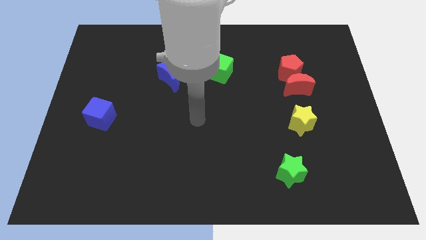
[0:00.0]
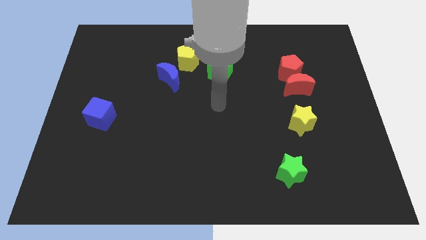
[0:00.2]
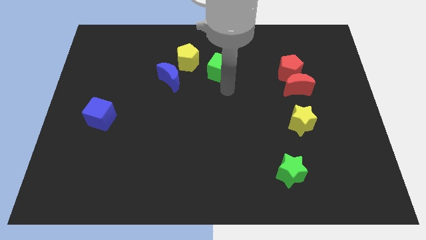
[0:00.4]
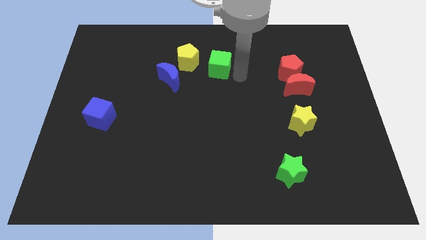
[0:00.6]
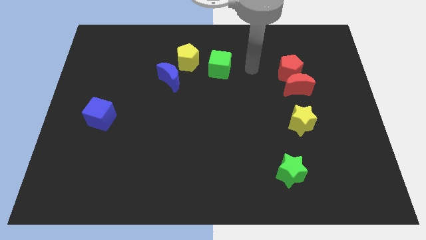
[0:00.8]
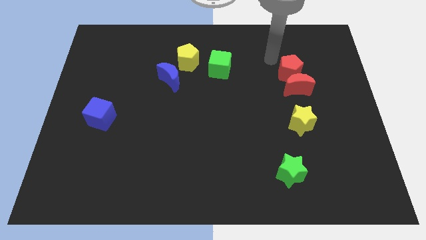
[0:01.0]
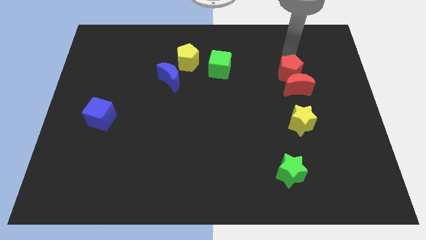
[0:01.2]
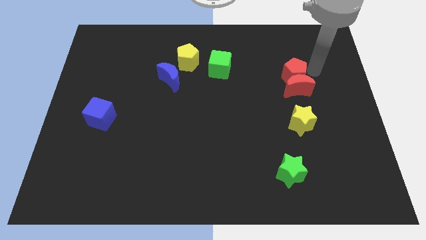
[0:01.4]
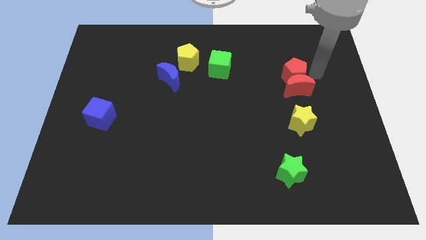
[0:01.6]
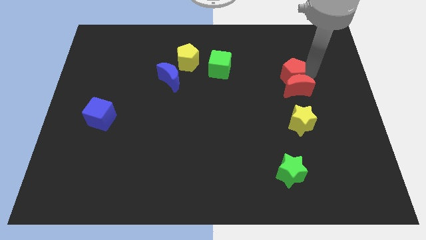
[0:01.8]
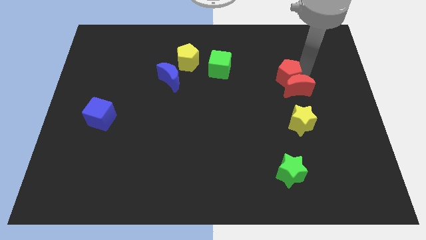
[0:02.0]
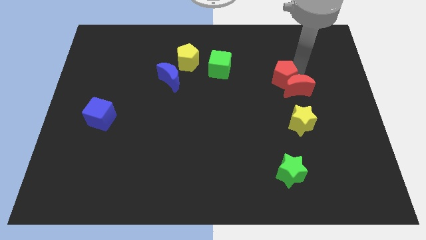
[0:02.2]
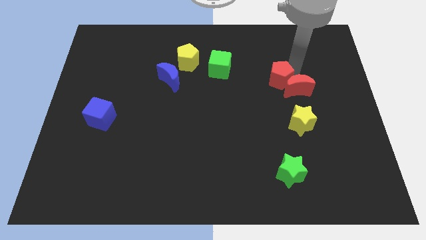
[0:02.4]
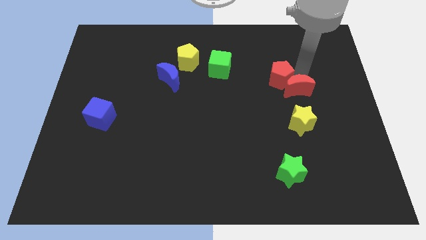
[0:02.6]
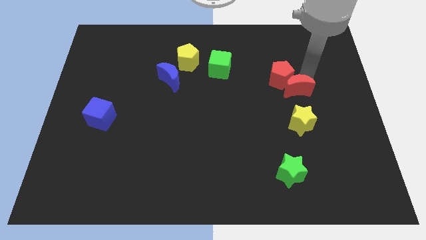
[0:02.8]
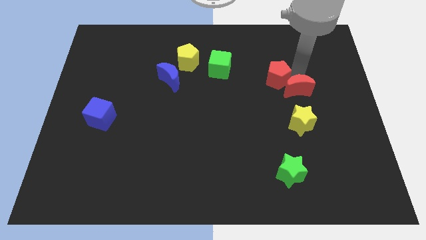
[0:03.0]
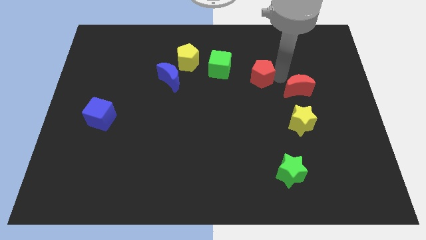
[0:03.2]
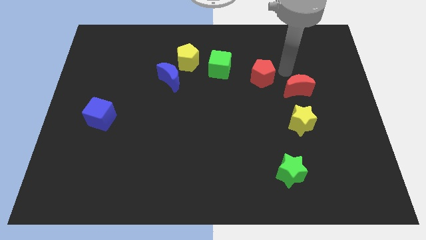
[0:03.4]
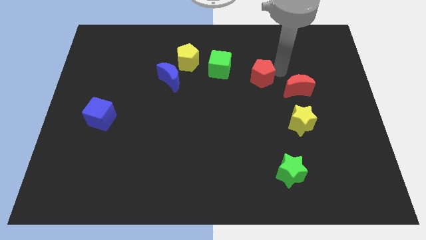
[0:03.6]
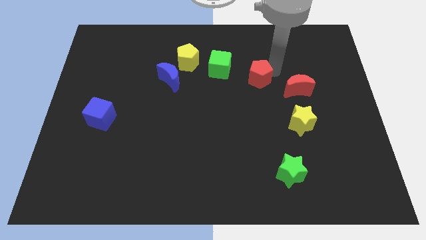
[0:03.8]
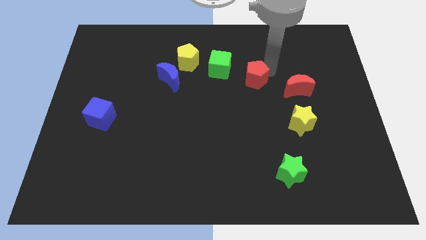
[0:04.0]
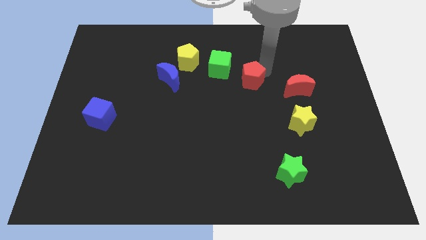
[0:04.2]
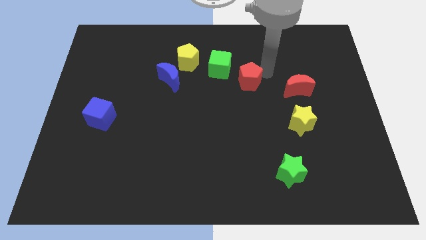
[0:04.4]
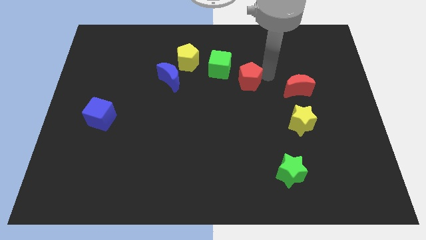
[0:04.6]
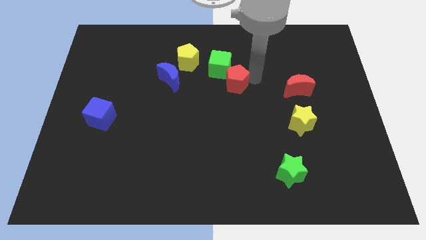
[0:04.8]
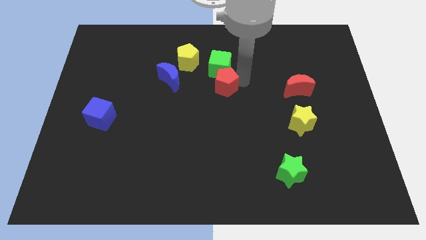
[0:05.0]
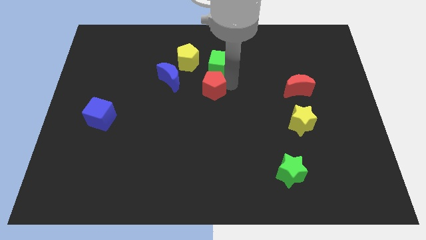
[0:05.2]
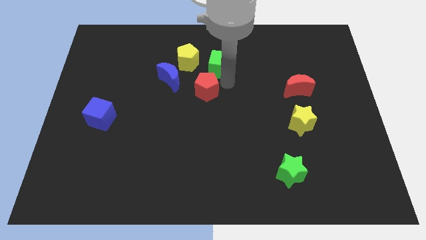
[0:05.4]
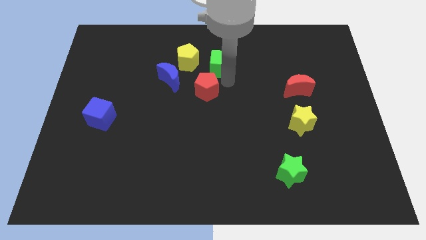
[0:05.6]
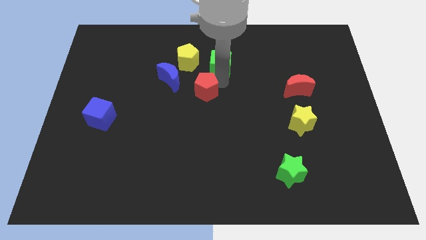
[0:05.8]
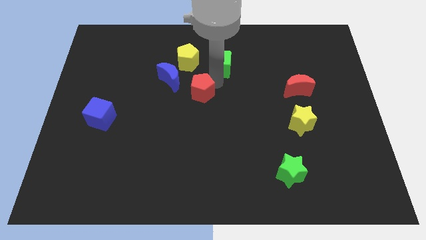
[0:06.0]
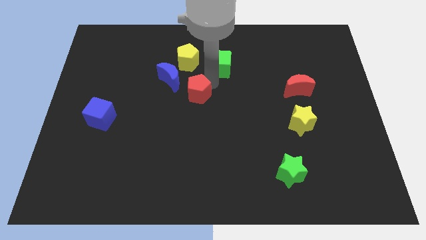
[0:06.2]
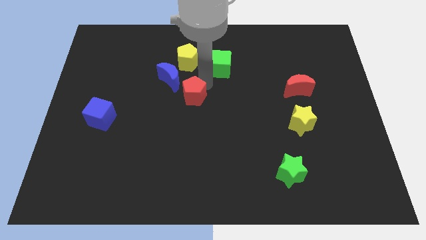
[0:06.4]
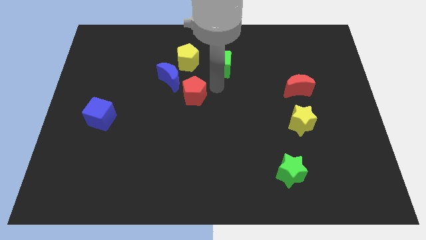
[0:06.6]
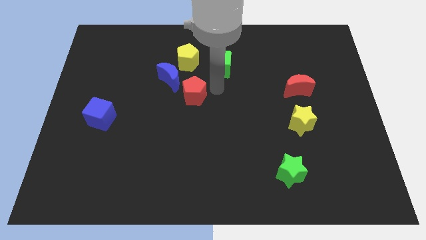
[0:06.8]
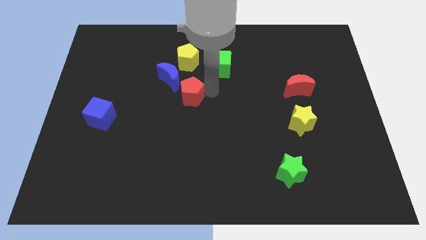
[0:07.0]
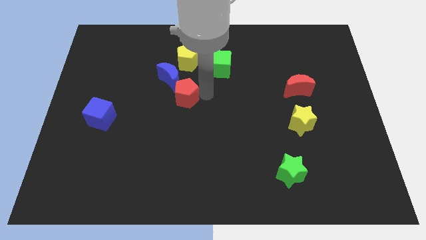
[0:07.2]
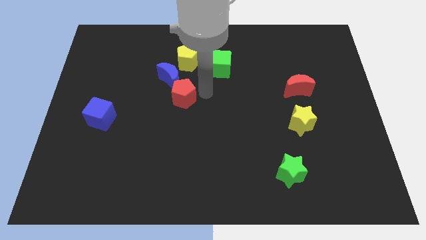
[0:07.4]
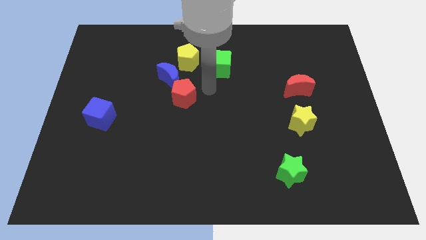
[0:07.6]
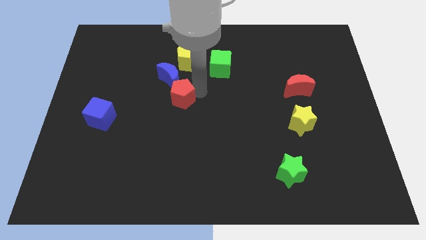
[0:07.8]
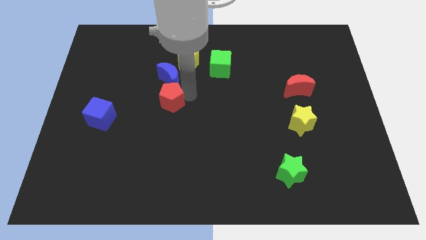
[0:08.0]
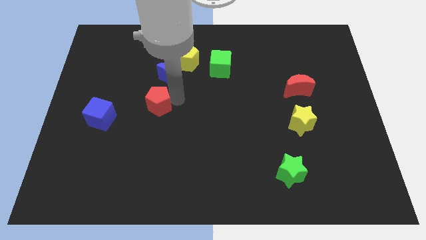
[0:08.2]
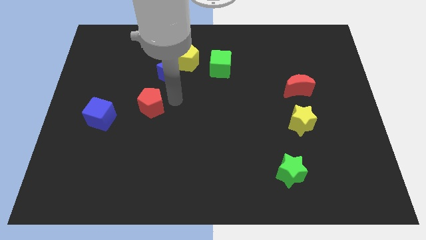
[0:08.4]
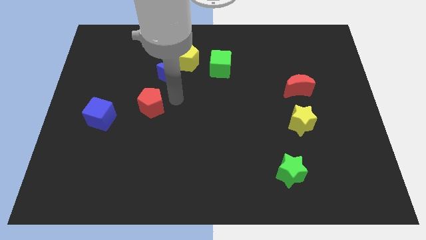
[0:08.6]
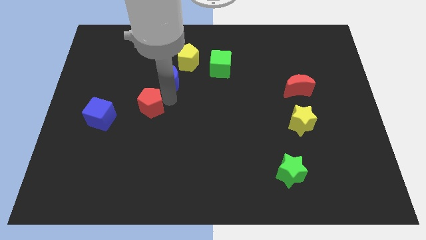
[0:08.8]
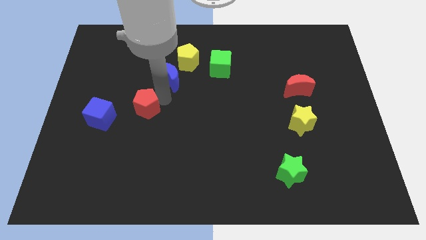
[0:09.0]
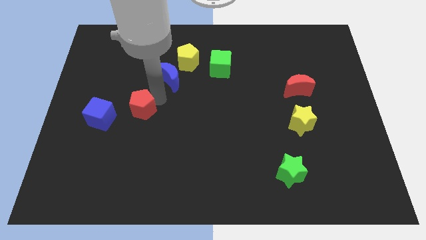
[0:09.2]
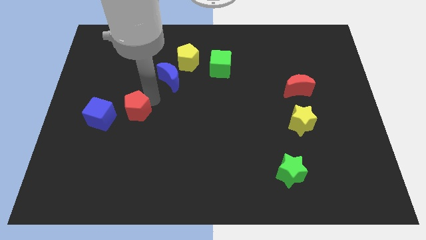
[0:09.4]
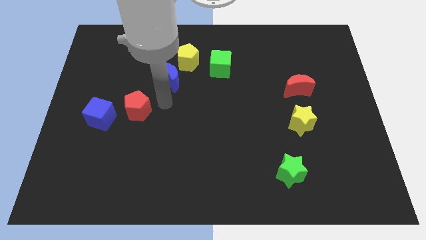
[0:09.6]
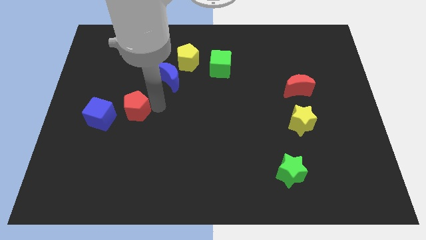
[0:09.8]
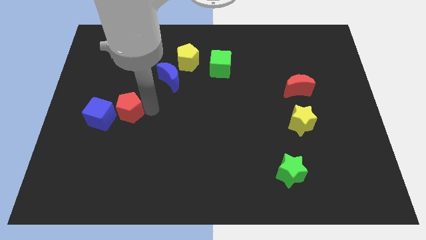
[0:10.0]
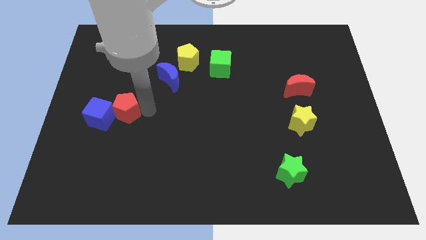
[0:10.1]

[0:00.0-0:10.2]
slide the red pentagon next to the blue cube

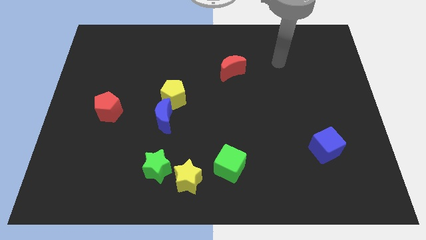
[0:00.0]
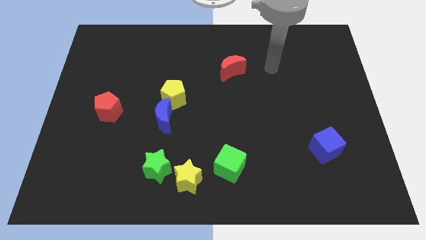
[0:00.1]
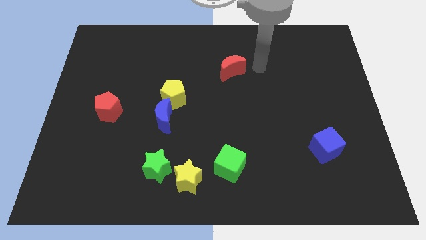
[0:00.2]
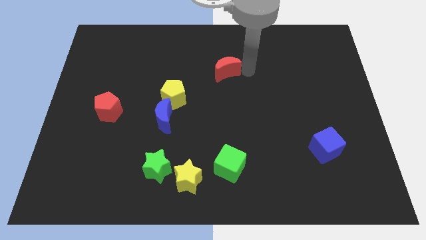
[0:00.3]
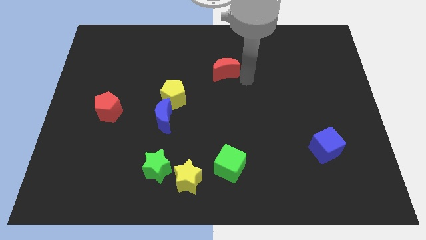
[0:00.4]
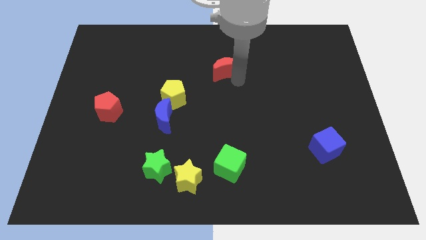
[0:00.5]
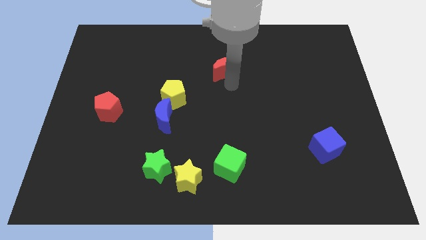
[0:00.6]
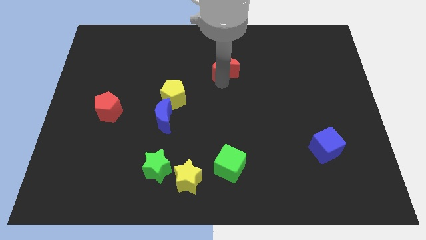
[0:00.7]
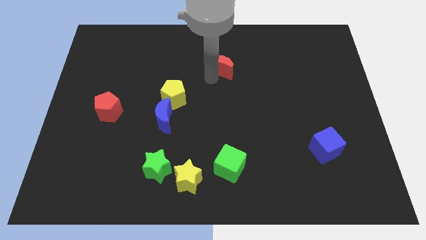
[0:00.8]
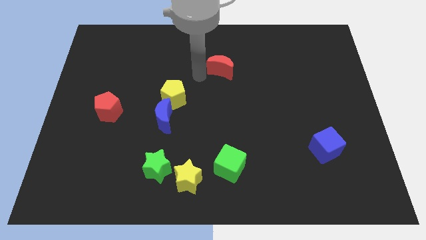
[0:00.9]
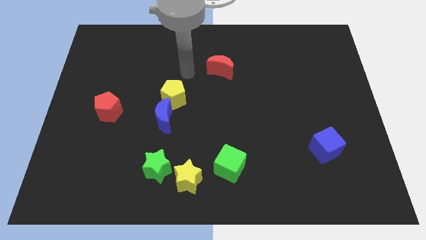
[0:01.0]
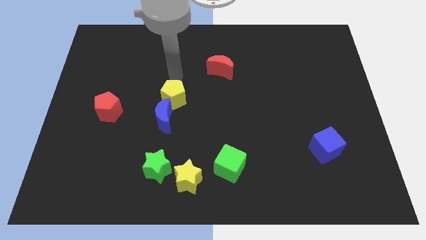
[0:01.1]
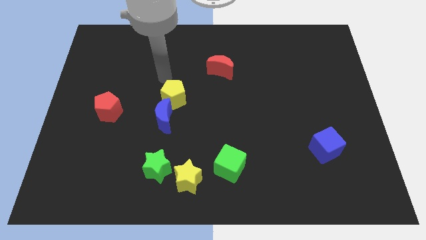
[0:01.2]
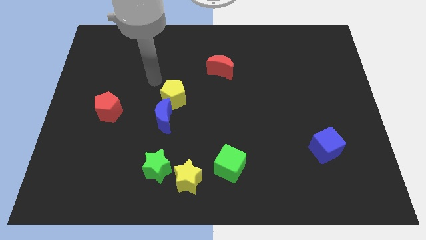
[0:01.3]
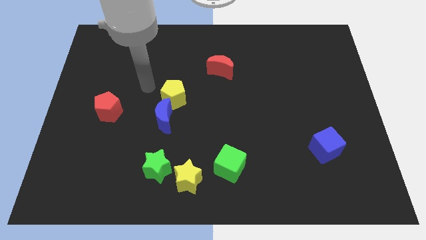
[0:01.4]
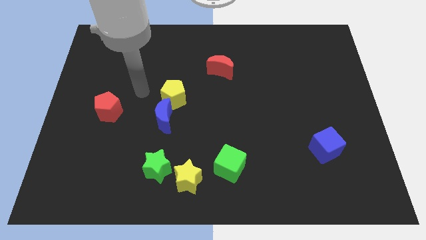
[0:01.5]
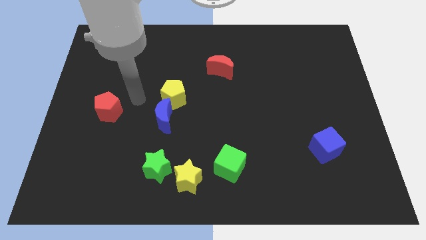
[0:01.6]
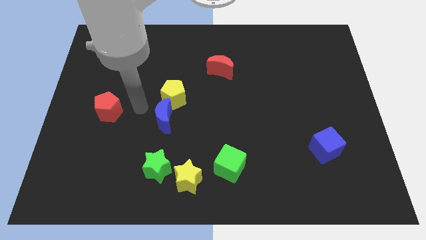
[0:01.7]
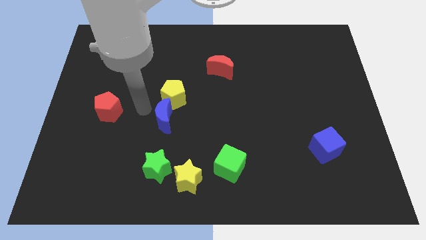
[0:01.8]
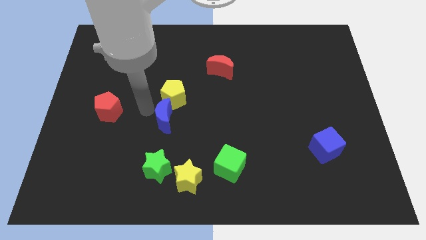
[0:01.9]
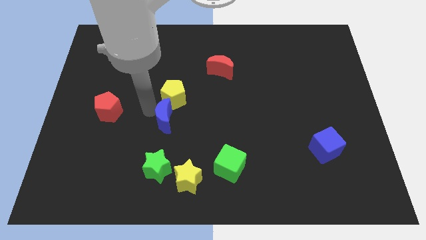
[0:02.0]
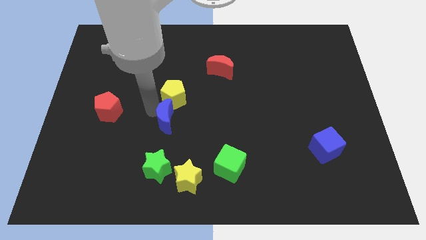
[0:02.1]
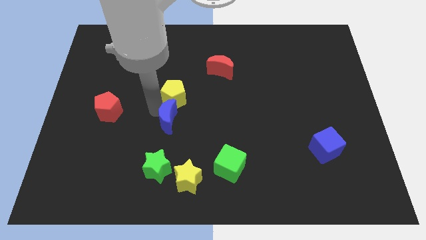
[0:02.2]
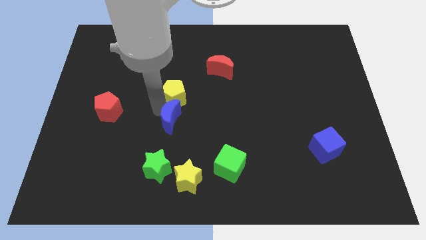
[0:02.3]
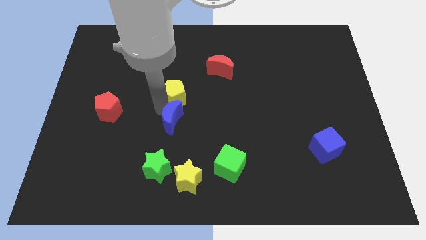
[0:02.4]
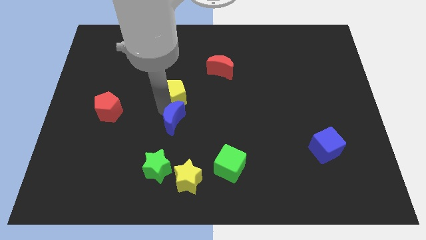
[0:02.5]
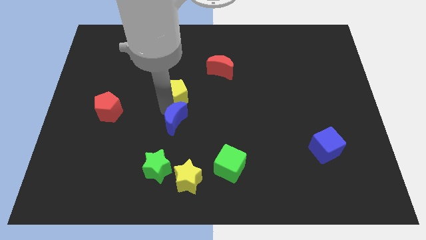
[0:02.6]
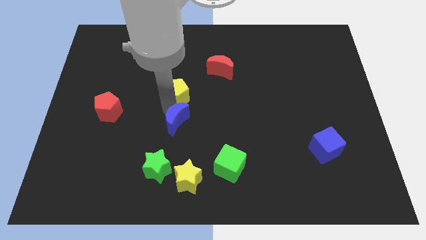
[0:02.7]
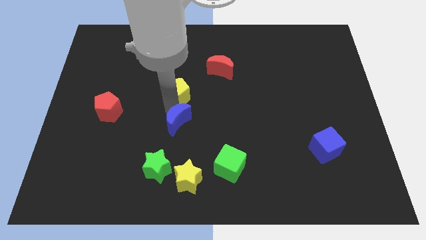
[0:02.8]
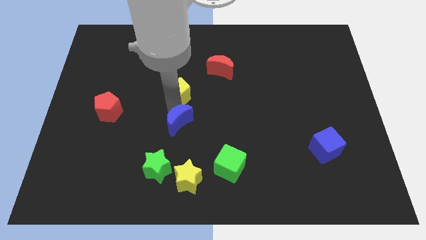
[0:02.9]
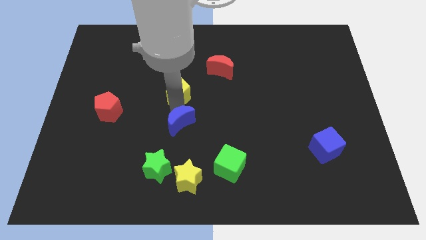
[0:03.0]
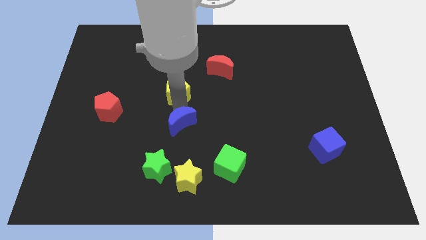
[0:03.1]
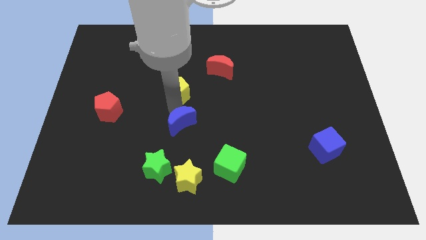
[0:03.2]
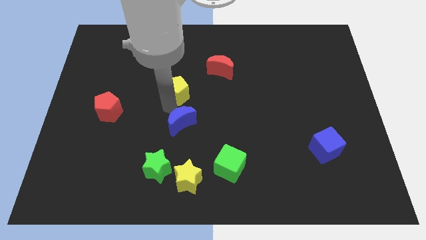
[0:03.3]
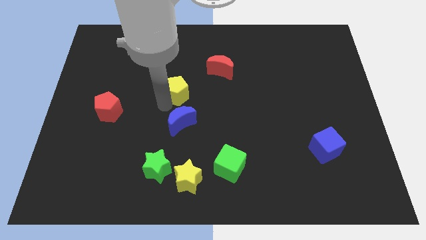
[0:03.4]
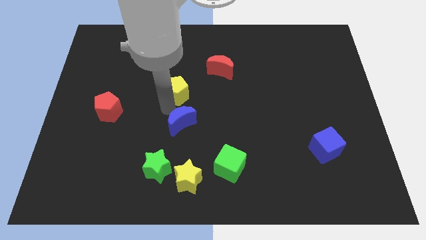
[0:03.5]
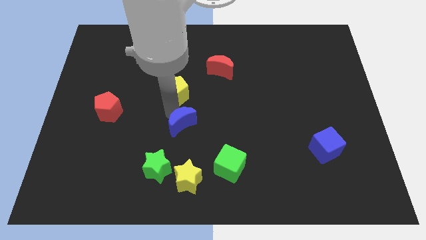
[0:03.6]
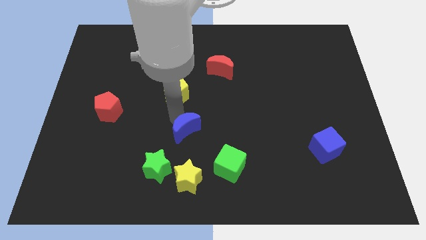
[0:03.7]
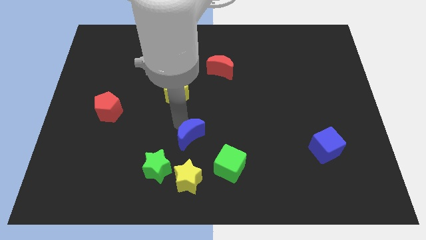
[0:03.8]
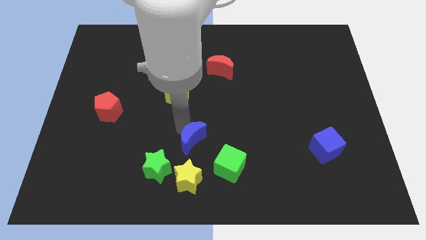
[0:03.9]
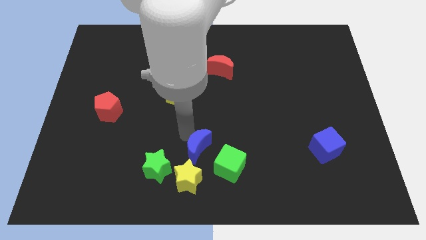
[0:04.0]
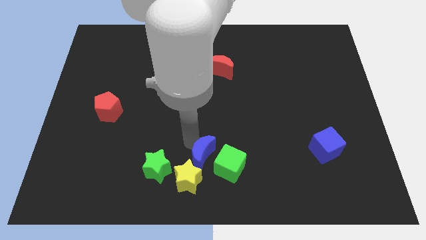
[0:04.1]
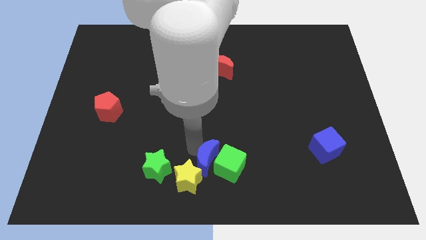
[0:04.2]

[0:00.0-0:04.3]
slide the blue moon close to the green cube
